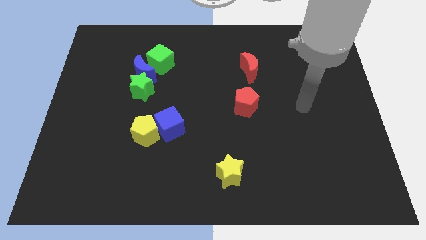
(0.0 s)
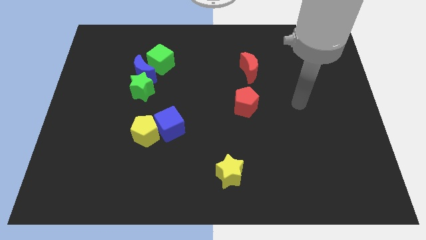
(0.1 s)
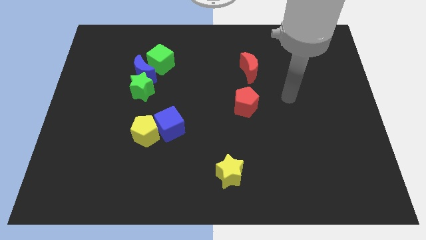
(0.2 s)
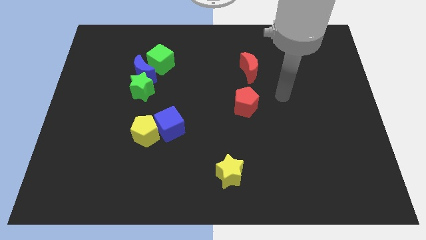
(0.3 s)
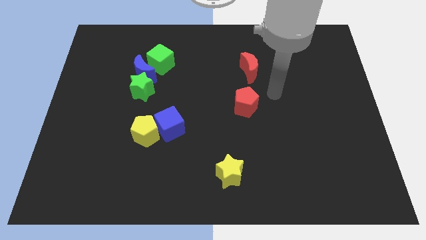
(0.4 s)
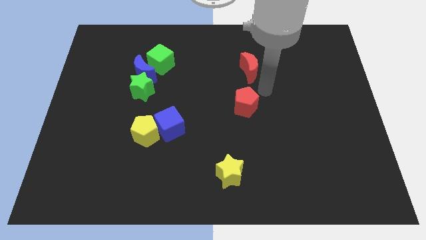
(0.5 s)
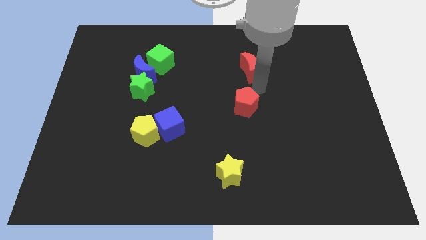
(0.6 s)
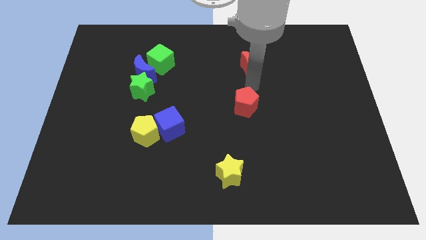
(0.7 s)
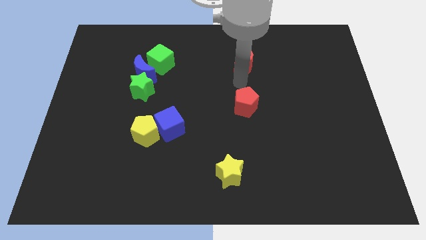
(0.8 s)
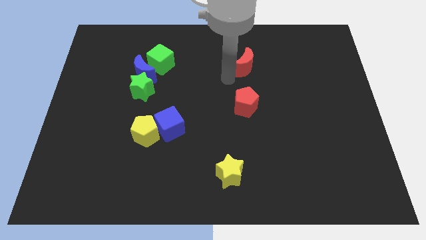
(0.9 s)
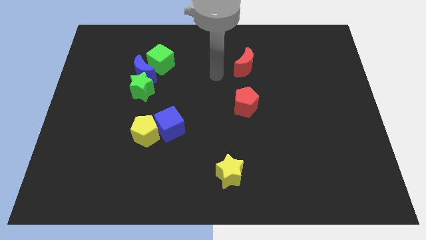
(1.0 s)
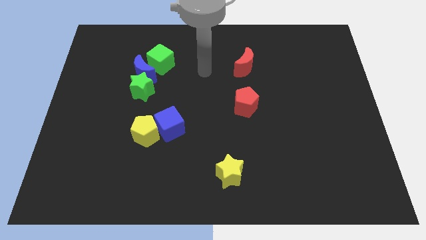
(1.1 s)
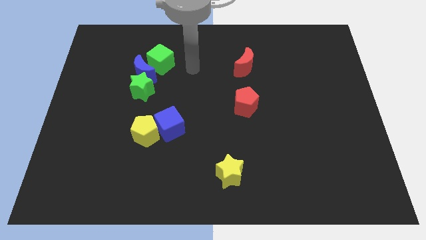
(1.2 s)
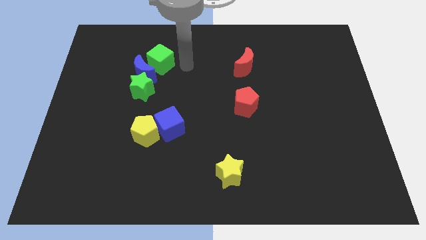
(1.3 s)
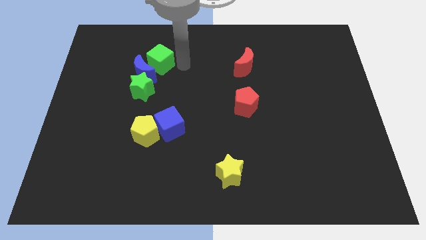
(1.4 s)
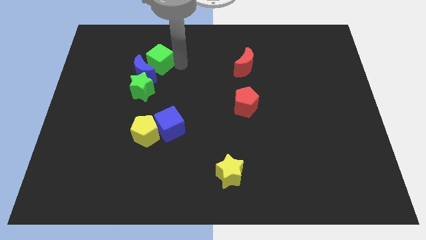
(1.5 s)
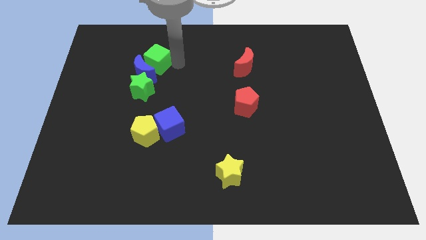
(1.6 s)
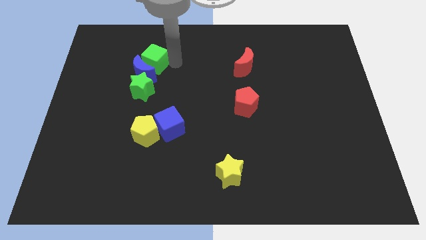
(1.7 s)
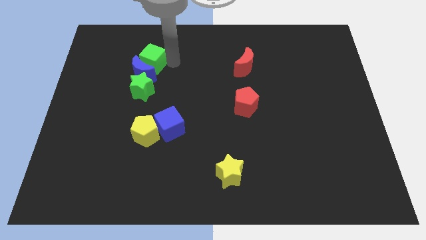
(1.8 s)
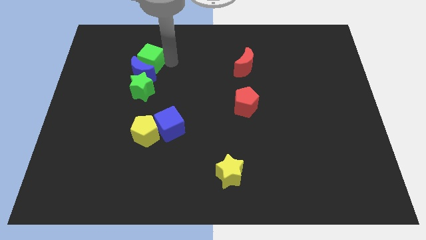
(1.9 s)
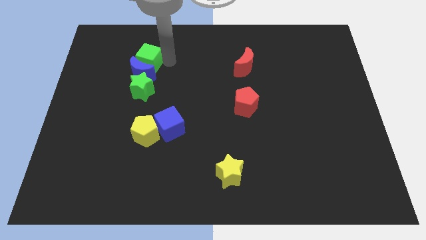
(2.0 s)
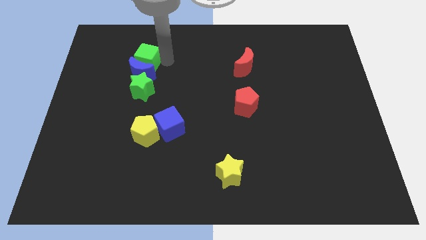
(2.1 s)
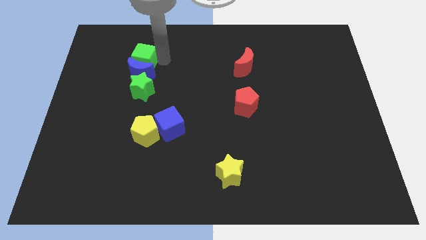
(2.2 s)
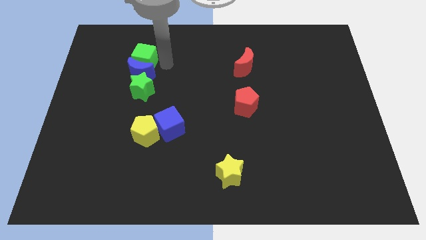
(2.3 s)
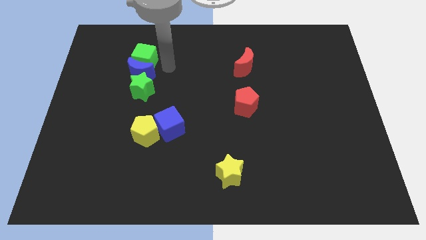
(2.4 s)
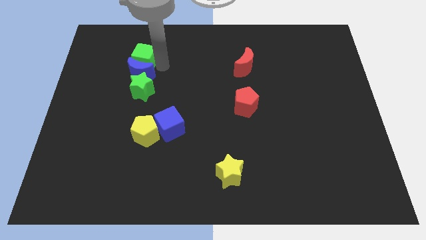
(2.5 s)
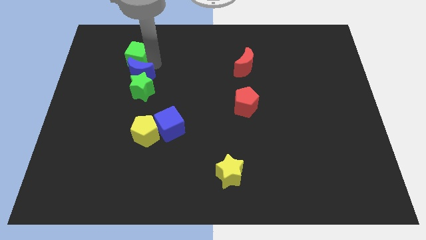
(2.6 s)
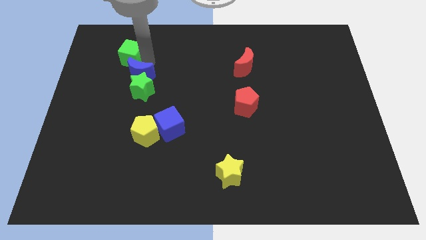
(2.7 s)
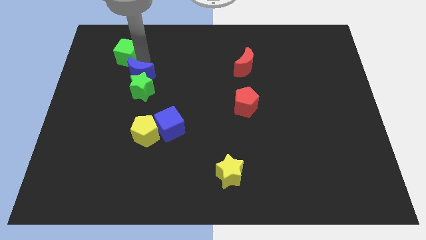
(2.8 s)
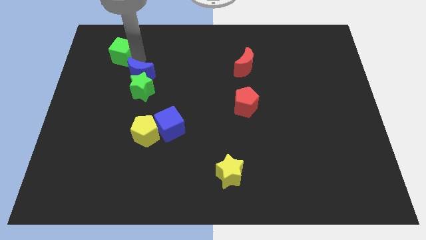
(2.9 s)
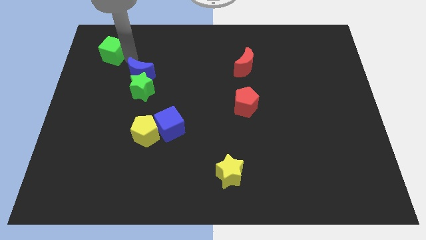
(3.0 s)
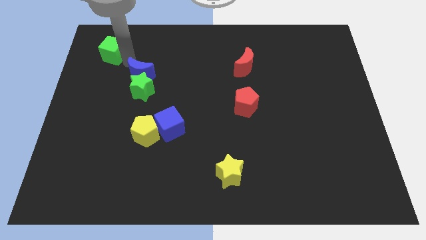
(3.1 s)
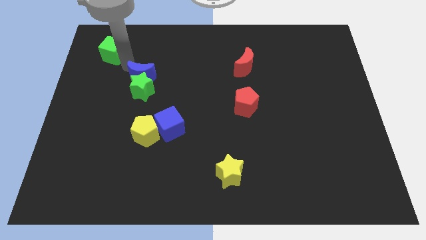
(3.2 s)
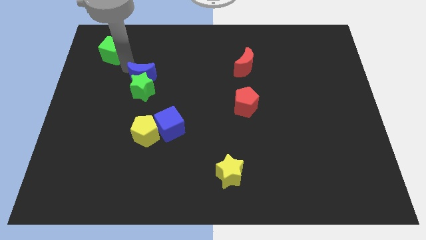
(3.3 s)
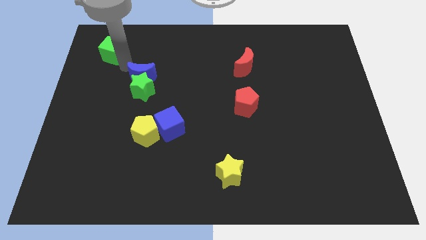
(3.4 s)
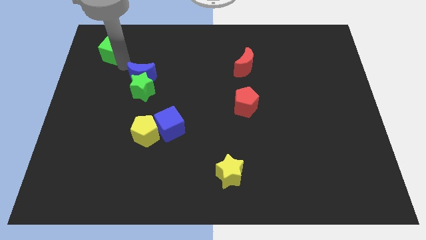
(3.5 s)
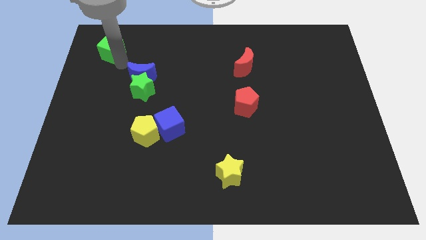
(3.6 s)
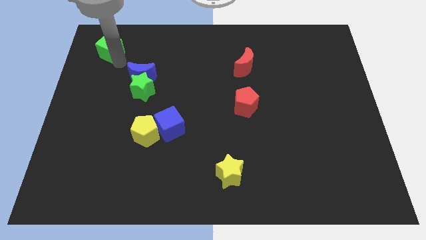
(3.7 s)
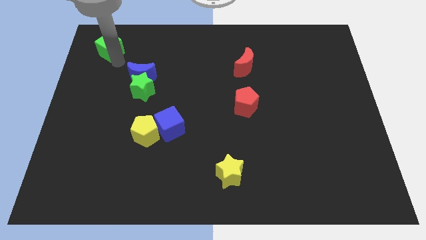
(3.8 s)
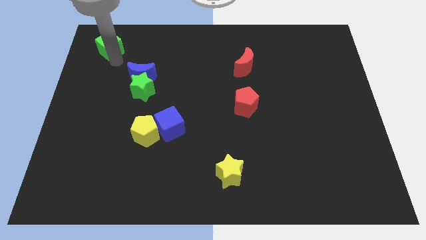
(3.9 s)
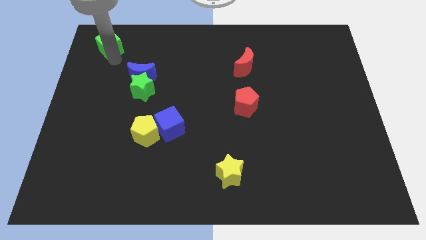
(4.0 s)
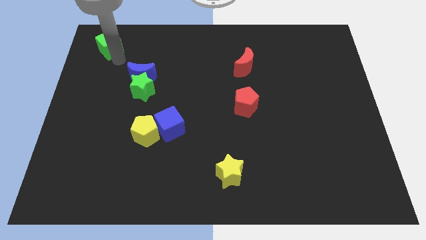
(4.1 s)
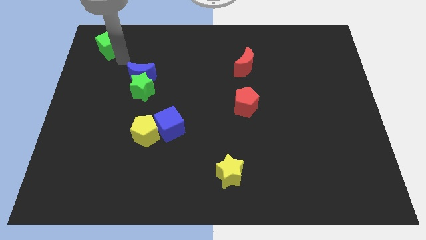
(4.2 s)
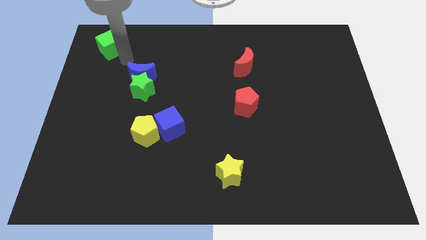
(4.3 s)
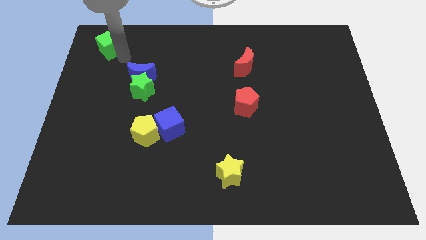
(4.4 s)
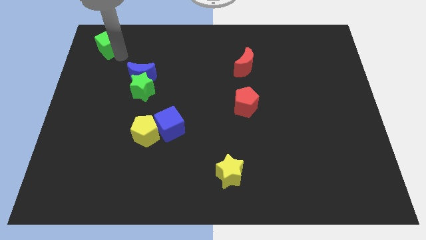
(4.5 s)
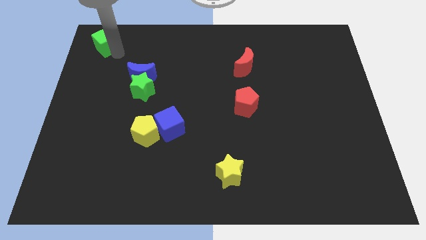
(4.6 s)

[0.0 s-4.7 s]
put the green cube to the upper left corner

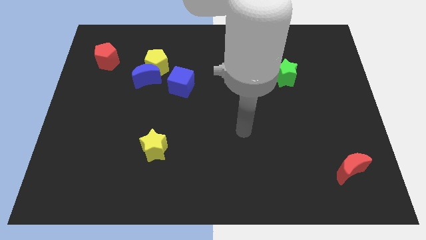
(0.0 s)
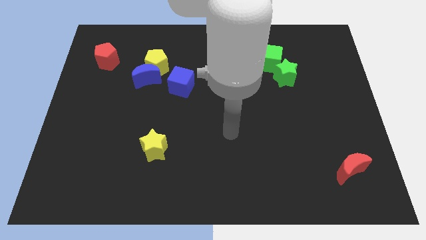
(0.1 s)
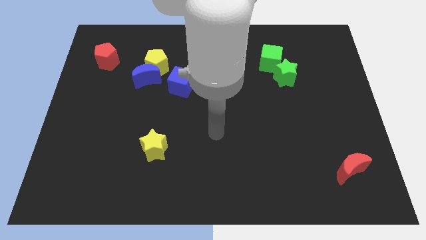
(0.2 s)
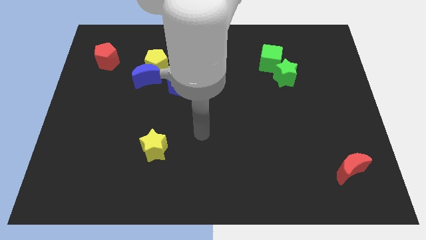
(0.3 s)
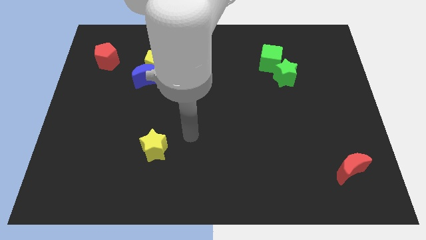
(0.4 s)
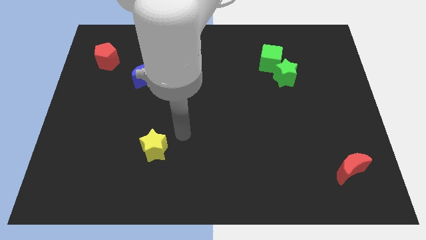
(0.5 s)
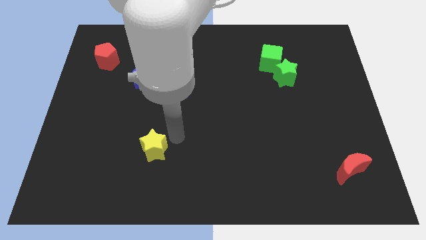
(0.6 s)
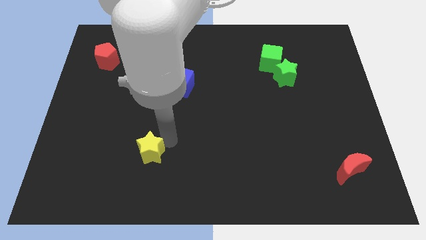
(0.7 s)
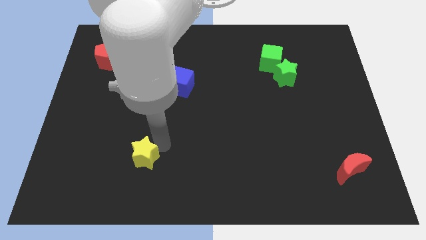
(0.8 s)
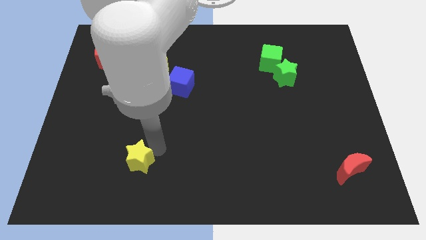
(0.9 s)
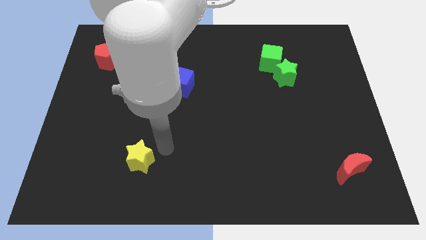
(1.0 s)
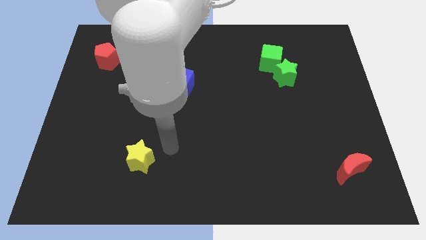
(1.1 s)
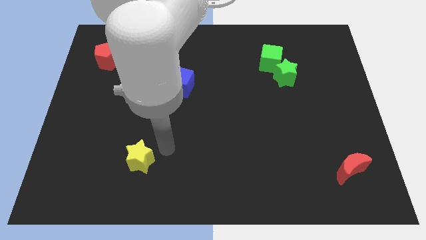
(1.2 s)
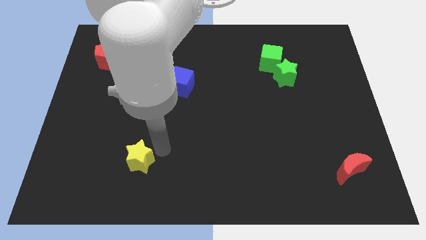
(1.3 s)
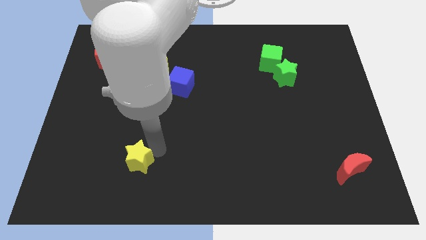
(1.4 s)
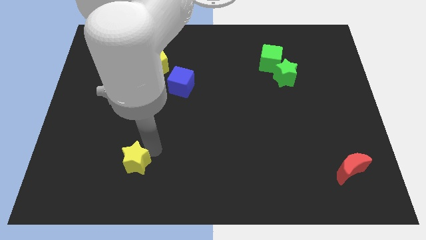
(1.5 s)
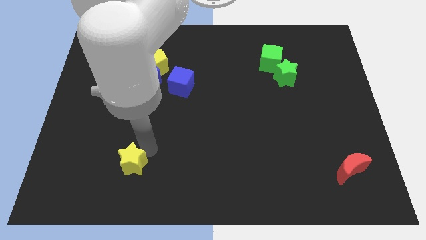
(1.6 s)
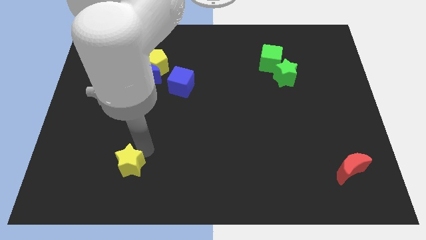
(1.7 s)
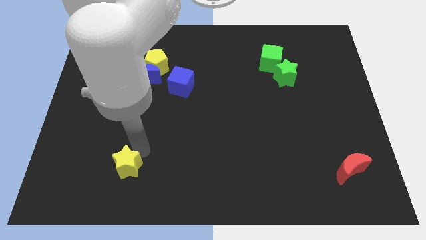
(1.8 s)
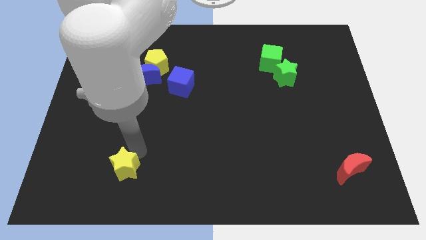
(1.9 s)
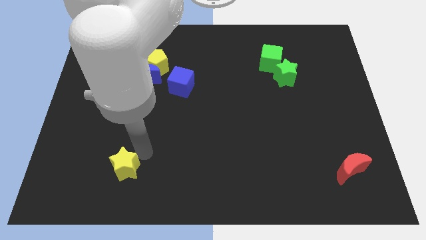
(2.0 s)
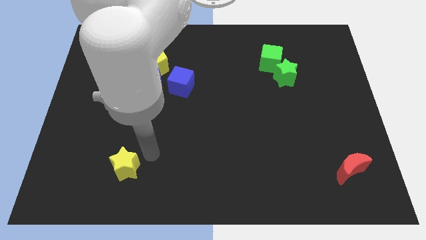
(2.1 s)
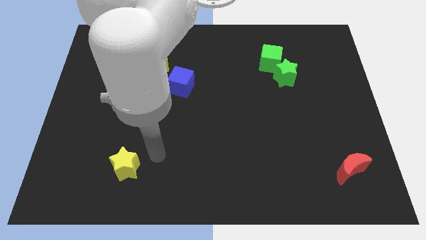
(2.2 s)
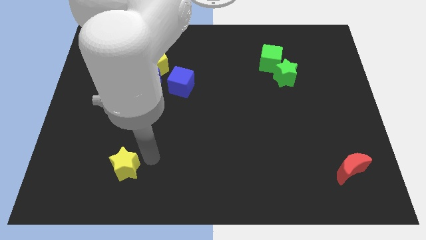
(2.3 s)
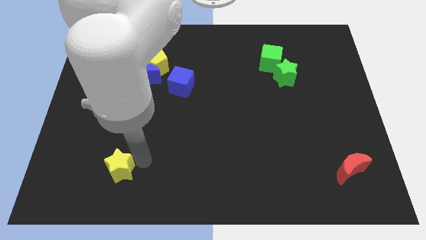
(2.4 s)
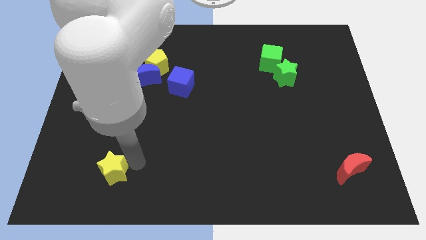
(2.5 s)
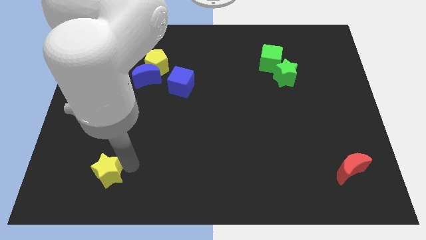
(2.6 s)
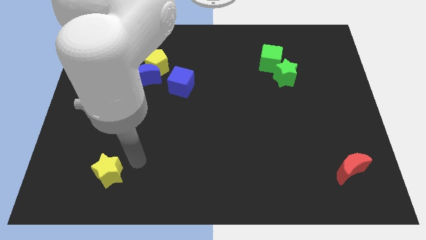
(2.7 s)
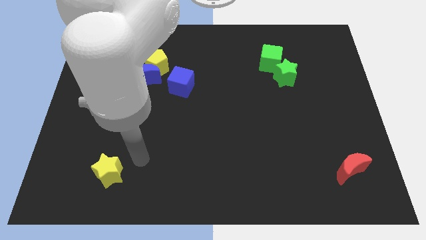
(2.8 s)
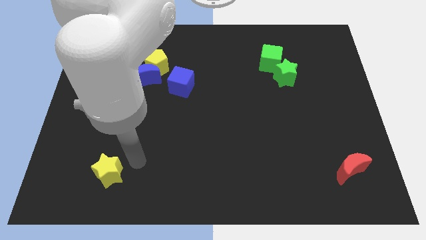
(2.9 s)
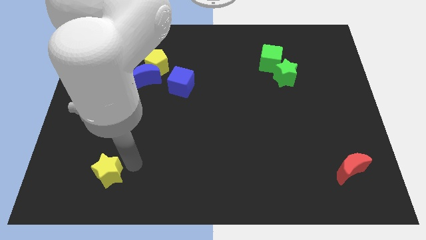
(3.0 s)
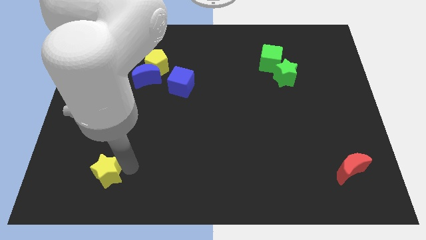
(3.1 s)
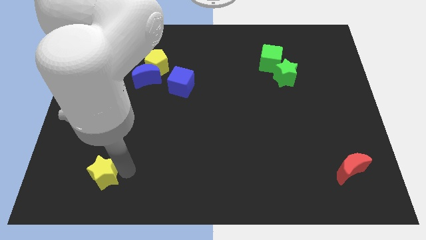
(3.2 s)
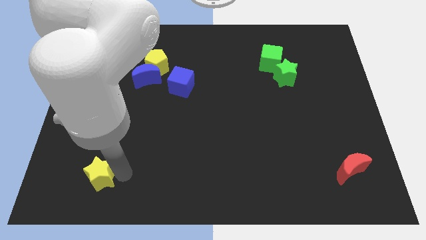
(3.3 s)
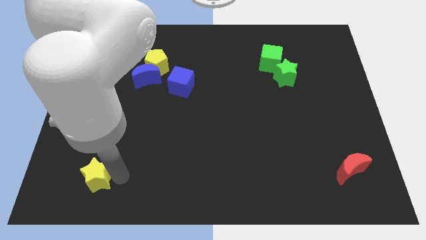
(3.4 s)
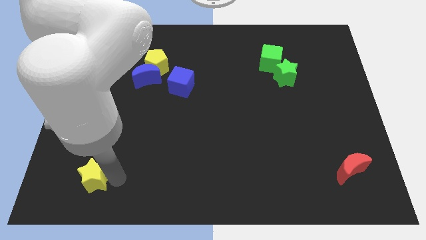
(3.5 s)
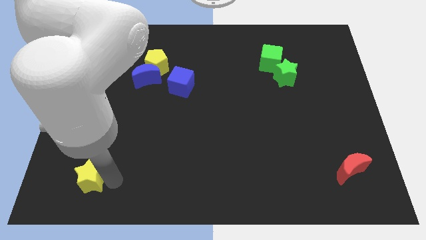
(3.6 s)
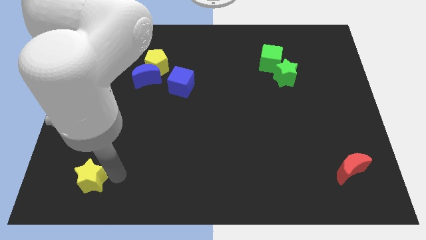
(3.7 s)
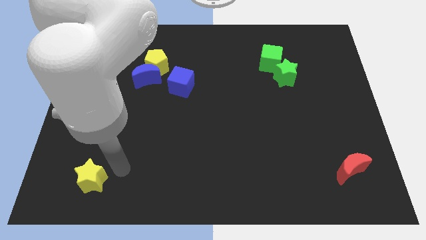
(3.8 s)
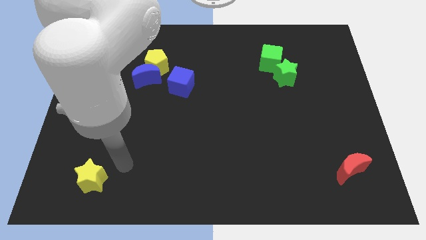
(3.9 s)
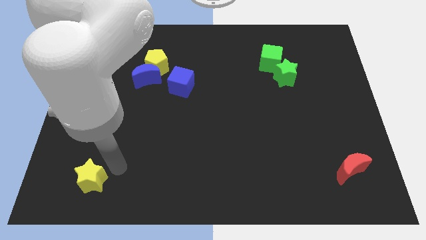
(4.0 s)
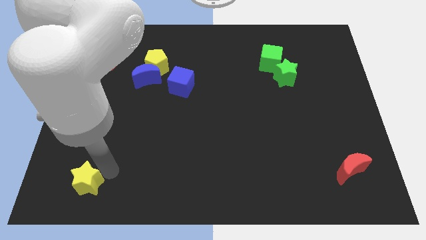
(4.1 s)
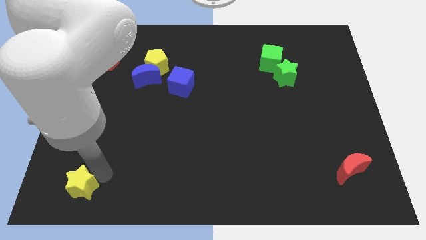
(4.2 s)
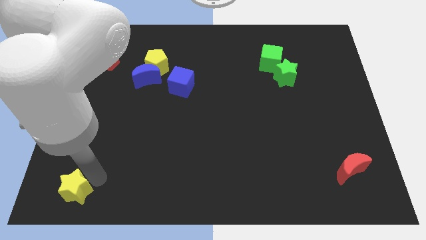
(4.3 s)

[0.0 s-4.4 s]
push the yellow star to the bottom left corner
